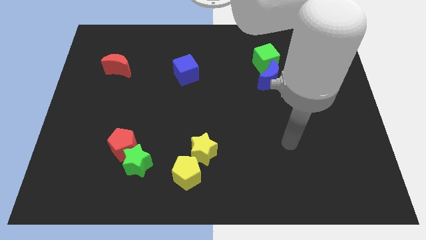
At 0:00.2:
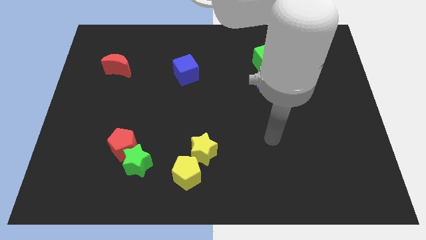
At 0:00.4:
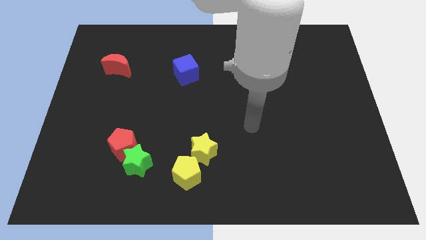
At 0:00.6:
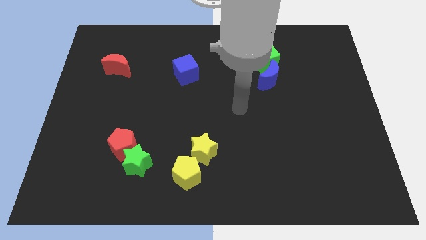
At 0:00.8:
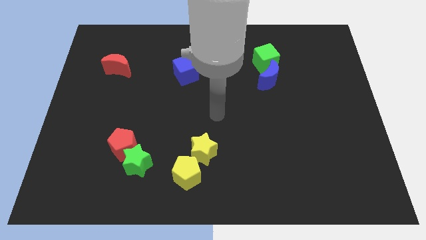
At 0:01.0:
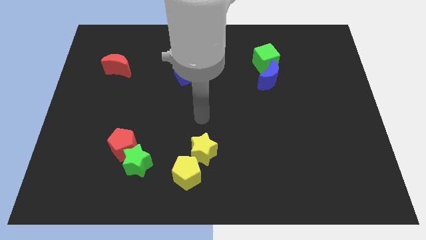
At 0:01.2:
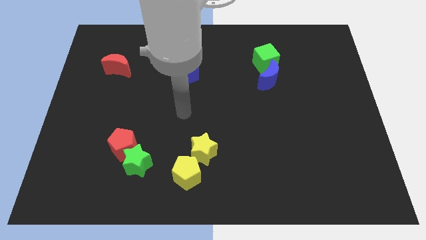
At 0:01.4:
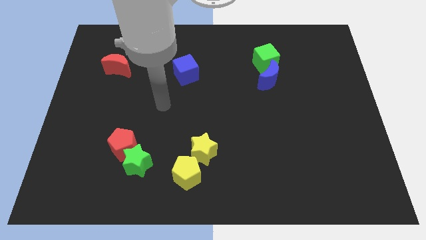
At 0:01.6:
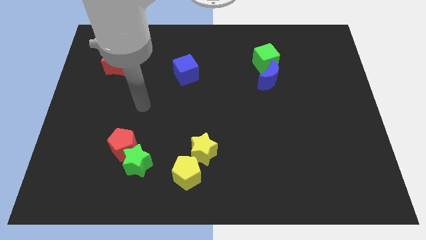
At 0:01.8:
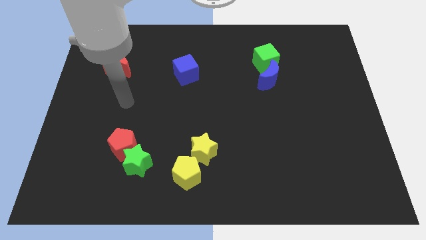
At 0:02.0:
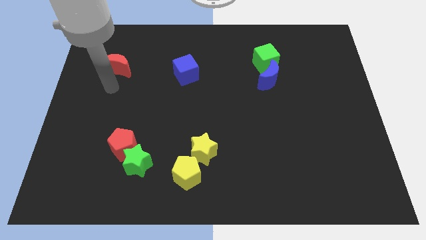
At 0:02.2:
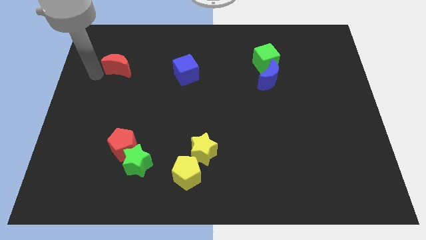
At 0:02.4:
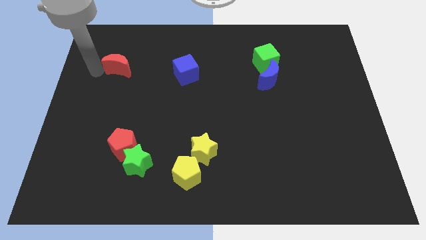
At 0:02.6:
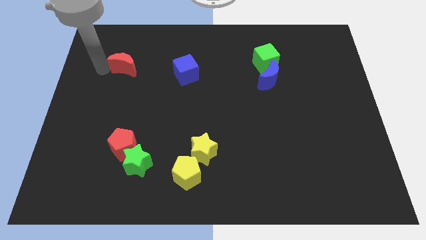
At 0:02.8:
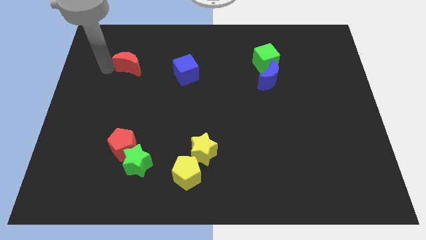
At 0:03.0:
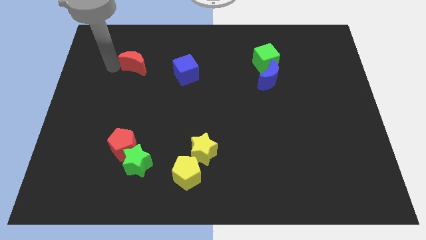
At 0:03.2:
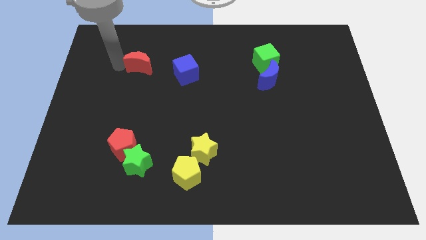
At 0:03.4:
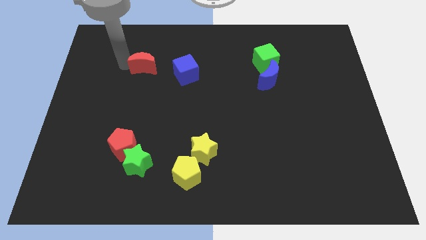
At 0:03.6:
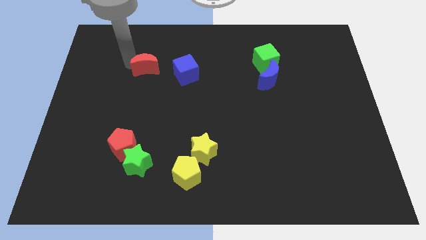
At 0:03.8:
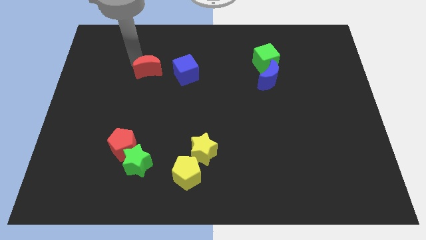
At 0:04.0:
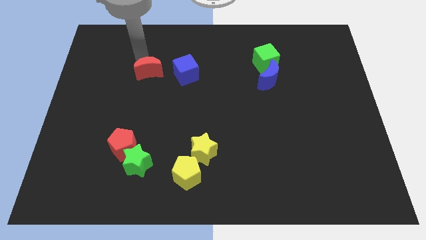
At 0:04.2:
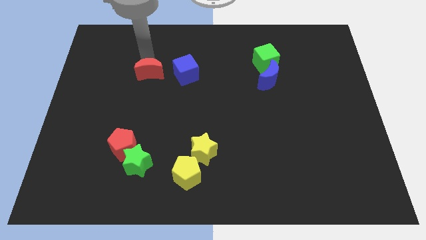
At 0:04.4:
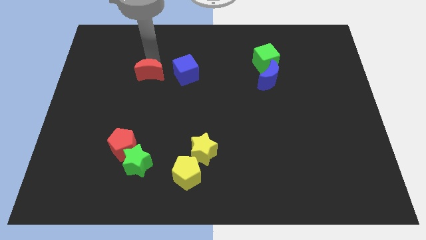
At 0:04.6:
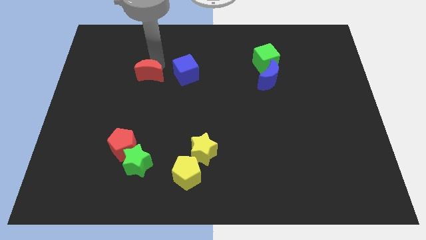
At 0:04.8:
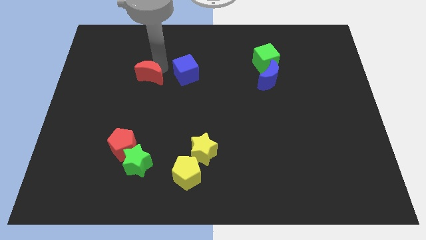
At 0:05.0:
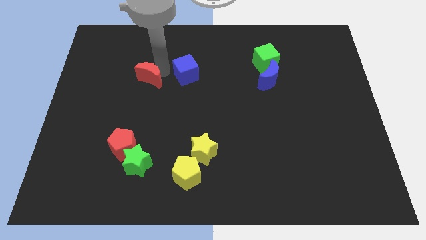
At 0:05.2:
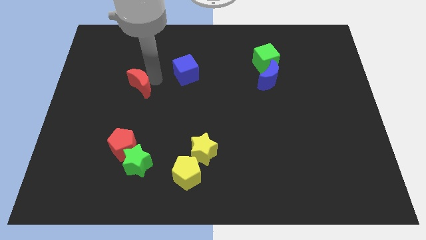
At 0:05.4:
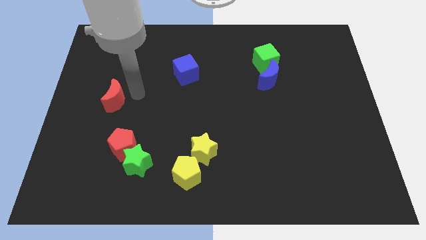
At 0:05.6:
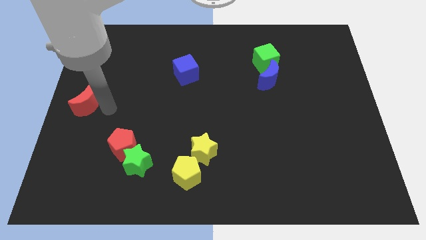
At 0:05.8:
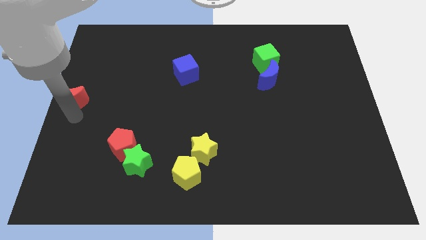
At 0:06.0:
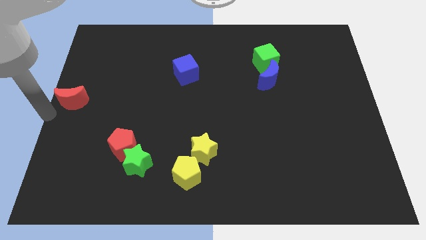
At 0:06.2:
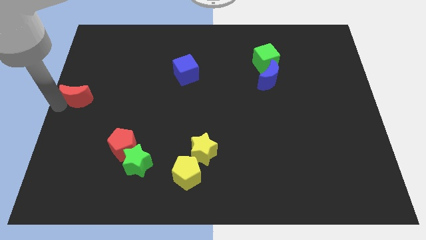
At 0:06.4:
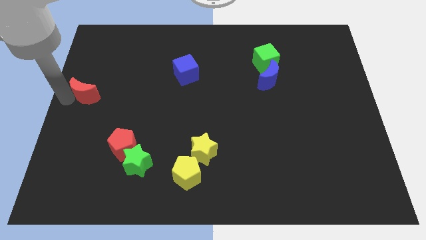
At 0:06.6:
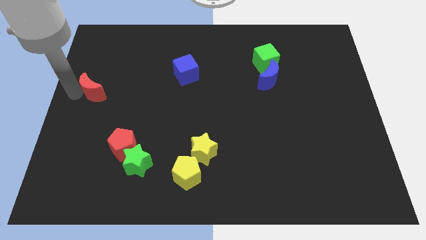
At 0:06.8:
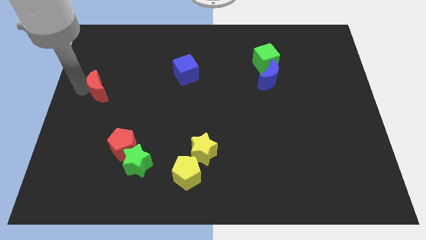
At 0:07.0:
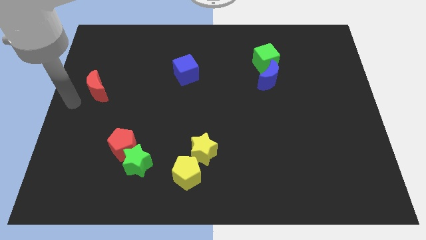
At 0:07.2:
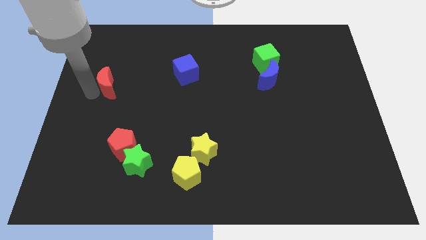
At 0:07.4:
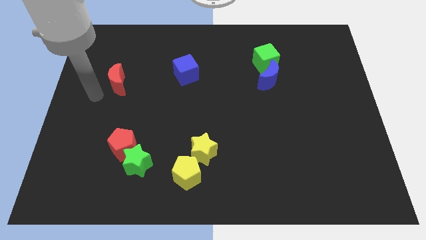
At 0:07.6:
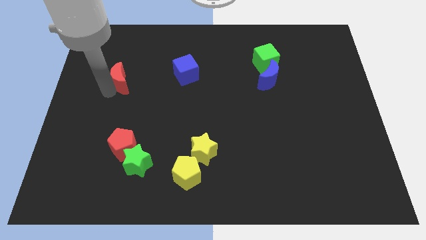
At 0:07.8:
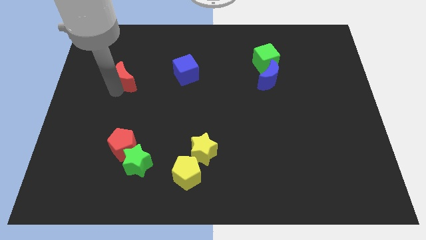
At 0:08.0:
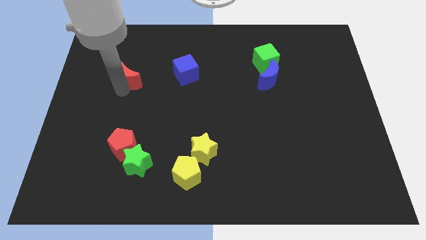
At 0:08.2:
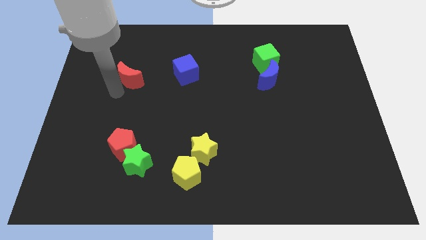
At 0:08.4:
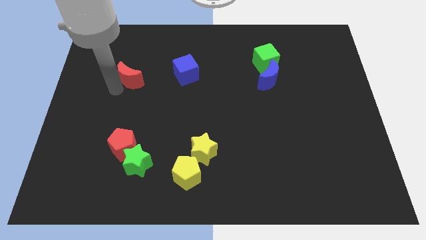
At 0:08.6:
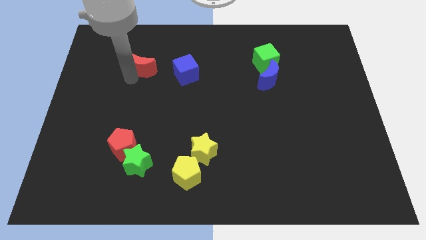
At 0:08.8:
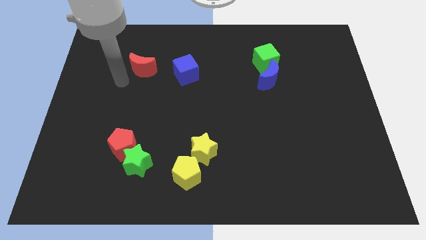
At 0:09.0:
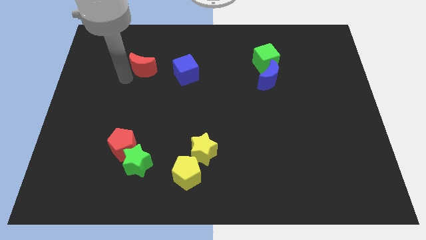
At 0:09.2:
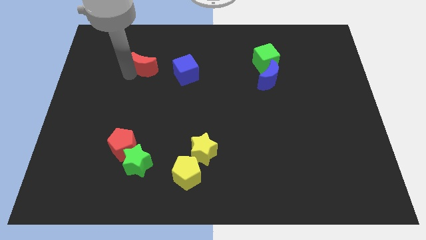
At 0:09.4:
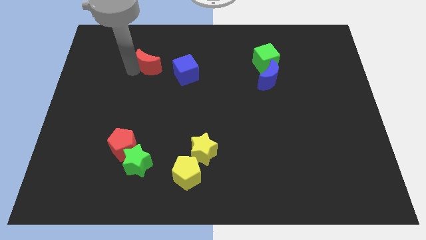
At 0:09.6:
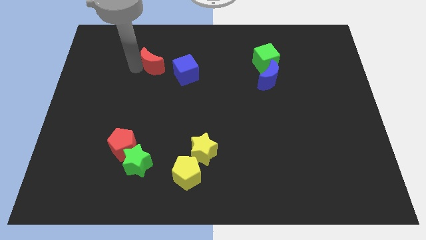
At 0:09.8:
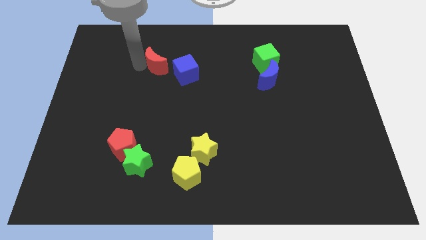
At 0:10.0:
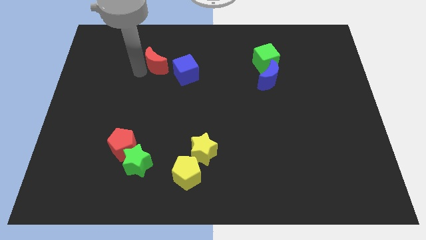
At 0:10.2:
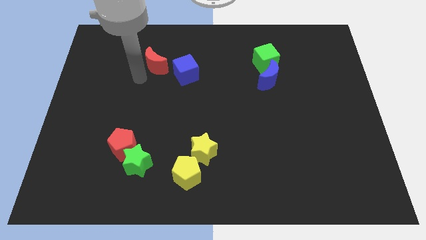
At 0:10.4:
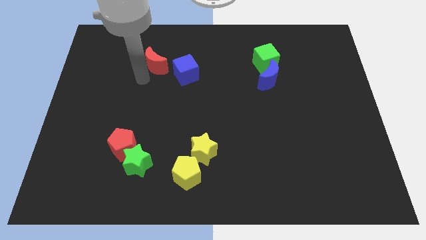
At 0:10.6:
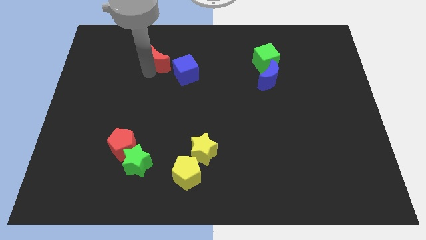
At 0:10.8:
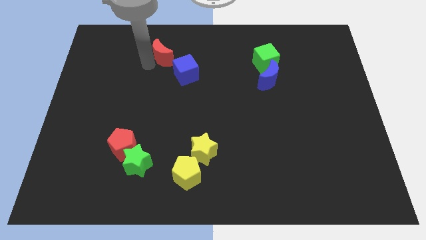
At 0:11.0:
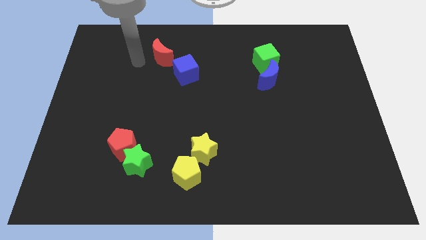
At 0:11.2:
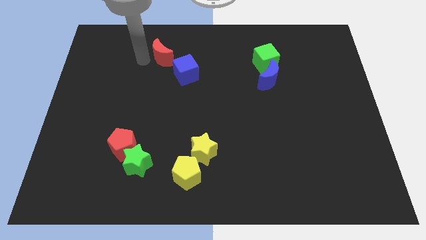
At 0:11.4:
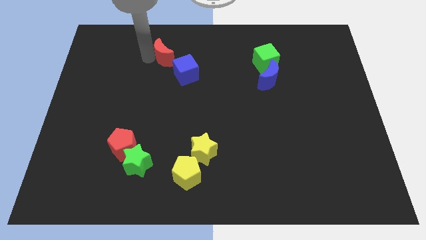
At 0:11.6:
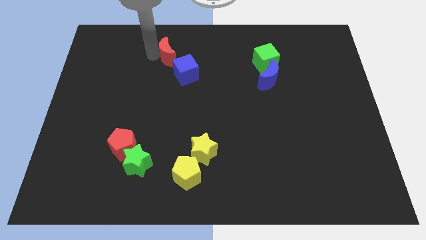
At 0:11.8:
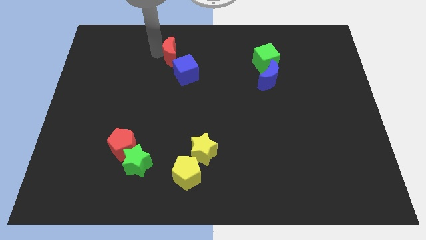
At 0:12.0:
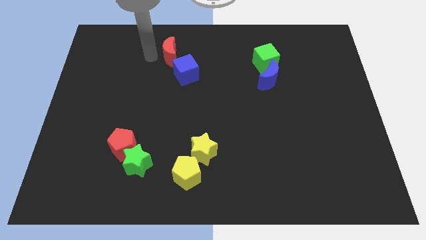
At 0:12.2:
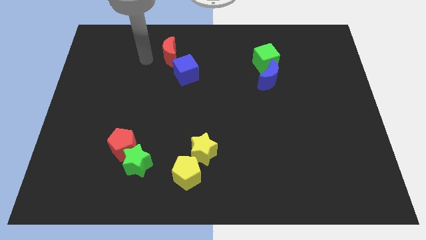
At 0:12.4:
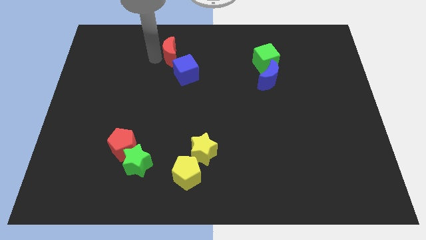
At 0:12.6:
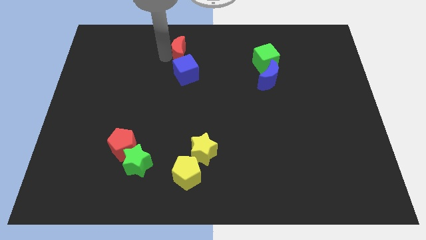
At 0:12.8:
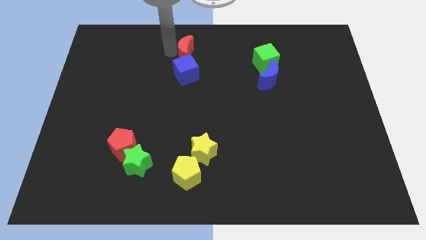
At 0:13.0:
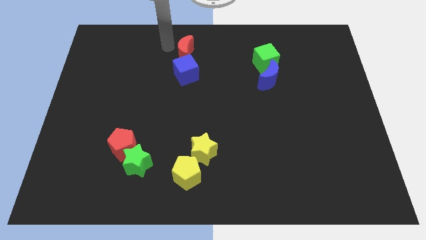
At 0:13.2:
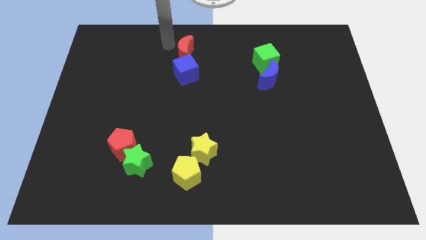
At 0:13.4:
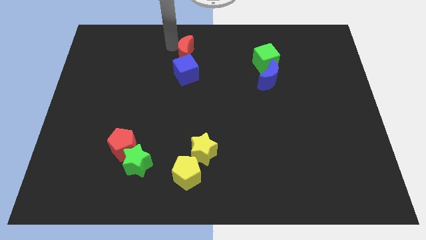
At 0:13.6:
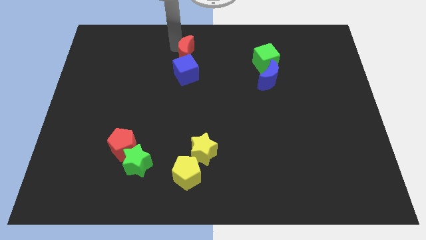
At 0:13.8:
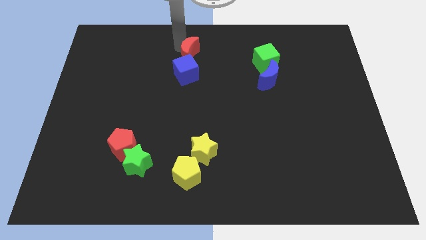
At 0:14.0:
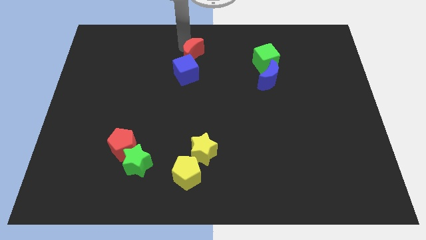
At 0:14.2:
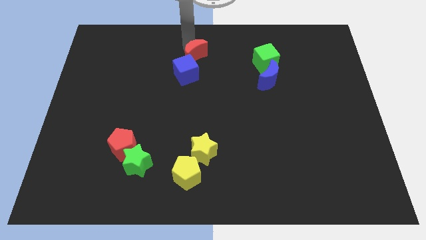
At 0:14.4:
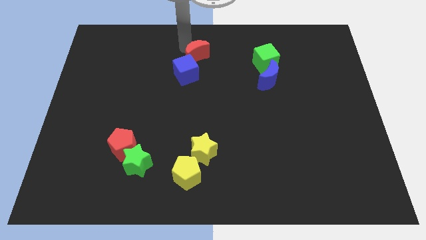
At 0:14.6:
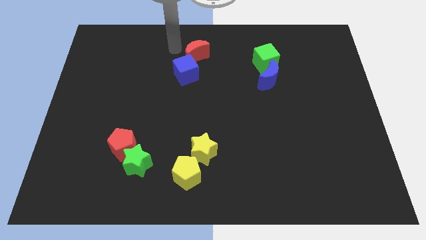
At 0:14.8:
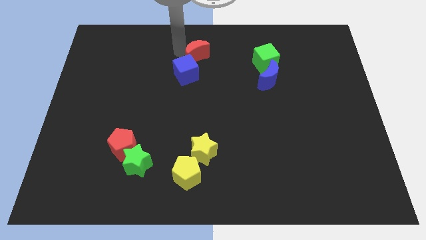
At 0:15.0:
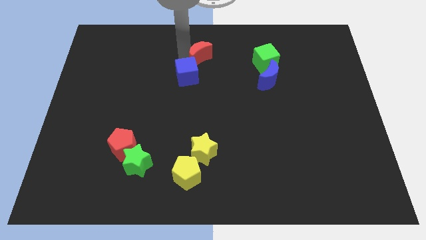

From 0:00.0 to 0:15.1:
push the red moon to the right

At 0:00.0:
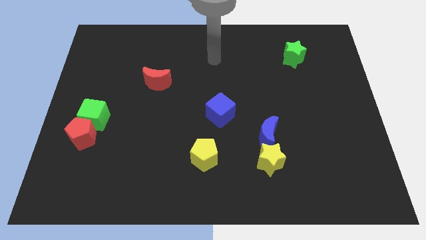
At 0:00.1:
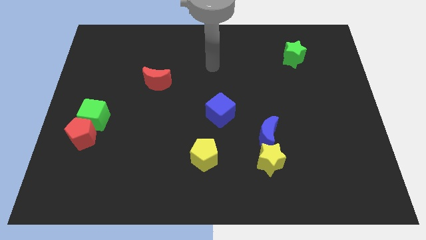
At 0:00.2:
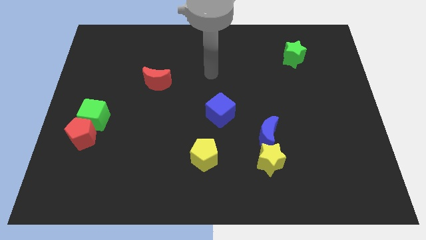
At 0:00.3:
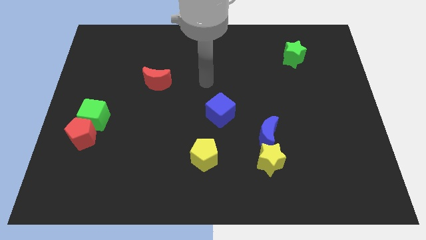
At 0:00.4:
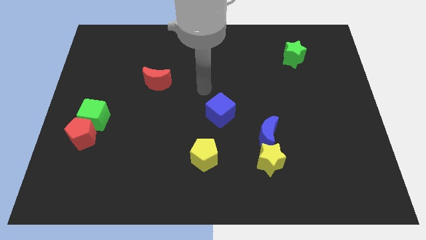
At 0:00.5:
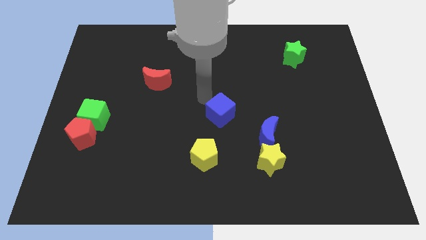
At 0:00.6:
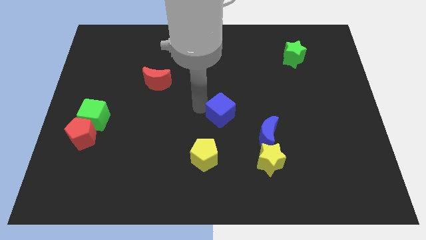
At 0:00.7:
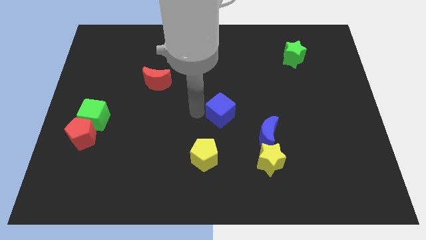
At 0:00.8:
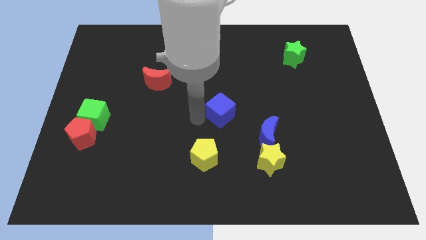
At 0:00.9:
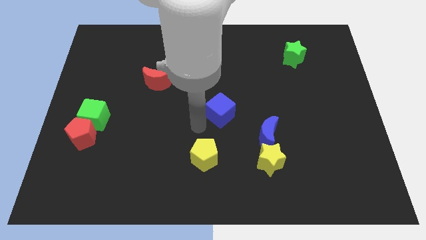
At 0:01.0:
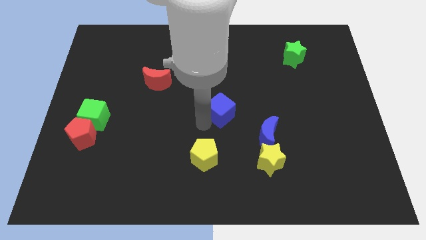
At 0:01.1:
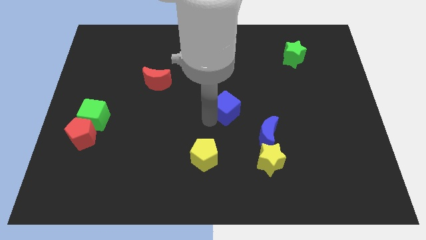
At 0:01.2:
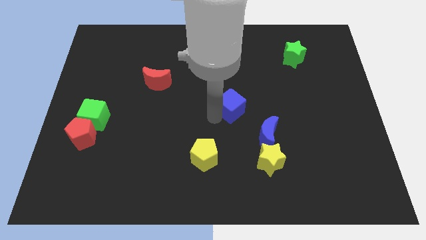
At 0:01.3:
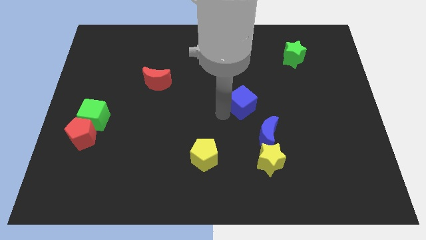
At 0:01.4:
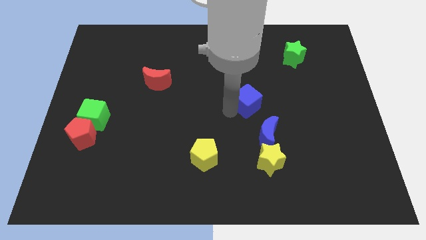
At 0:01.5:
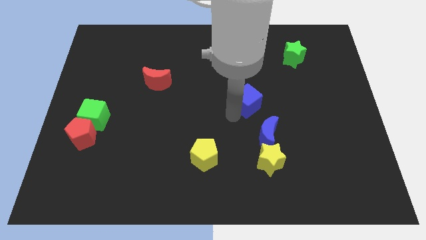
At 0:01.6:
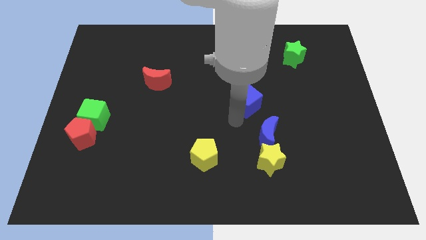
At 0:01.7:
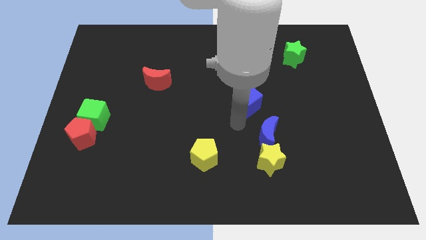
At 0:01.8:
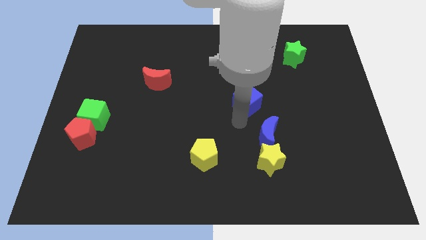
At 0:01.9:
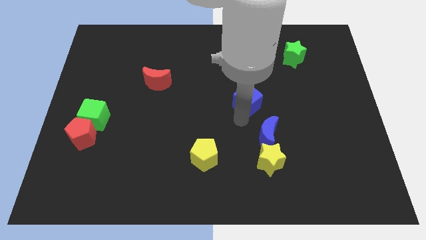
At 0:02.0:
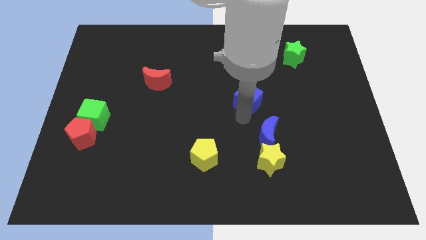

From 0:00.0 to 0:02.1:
push the blue cube upwards and right diagonally a little bit
